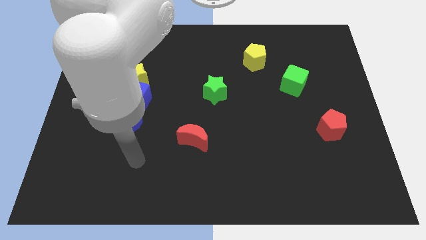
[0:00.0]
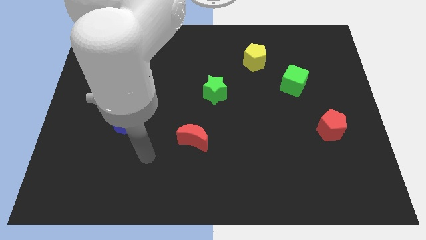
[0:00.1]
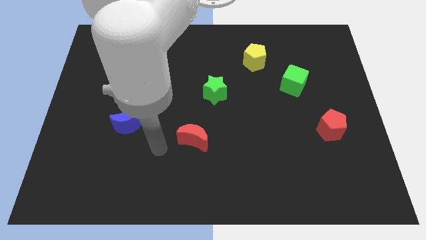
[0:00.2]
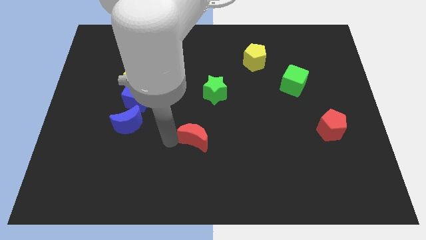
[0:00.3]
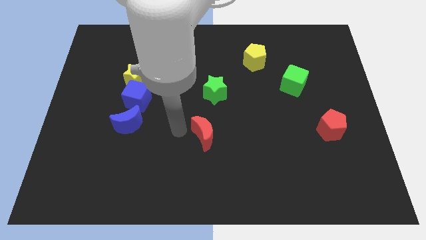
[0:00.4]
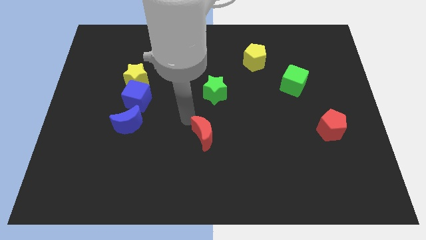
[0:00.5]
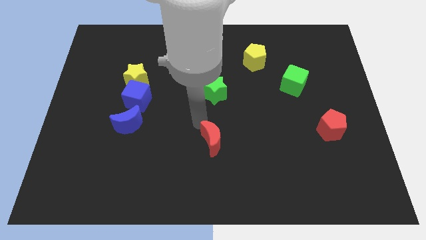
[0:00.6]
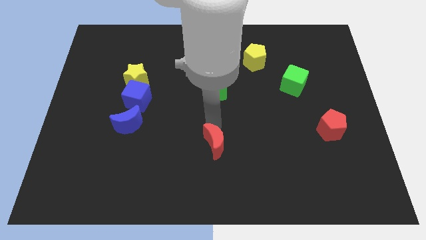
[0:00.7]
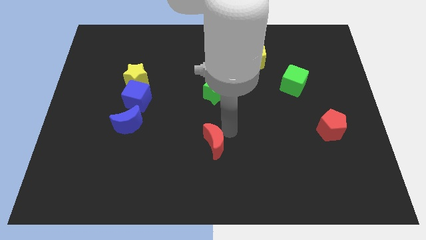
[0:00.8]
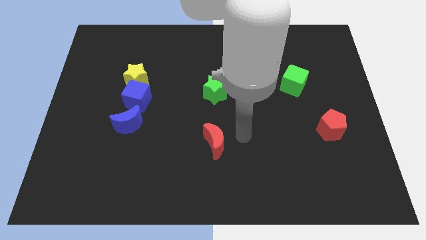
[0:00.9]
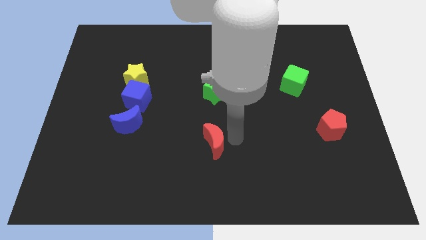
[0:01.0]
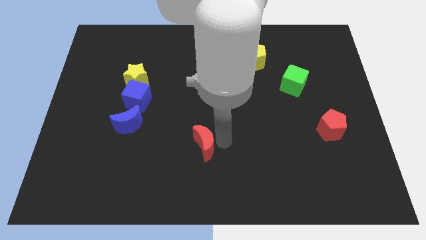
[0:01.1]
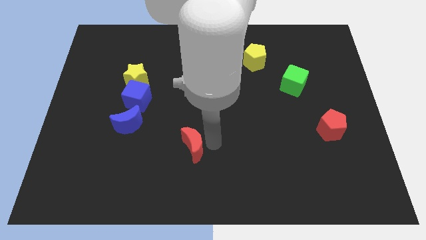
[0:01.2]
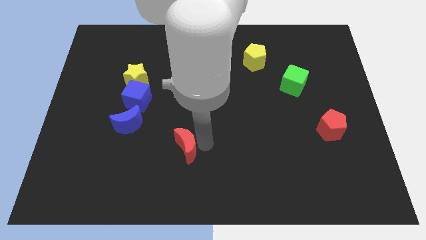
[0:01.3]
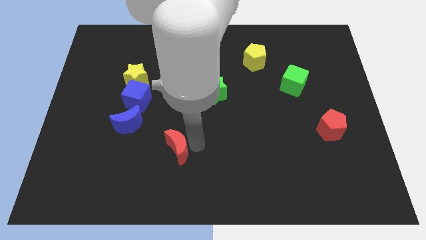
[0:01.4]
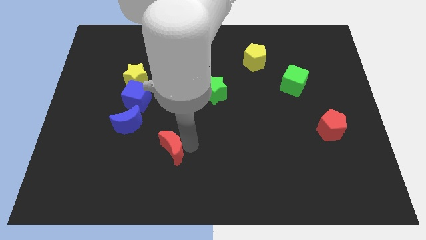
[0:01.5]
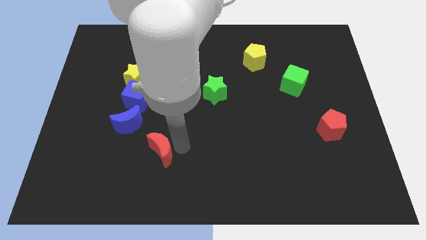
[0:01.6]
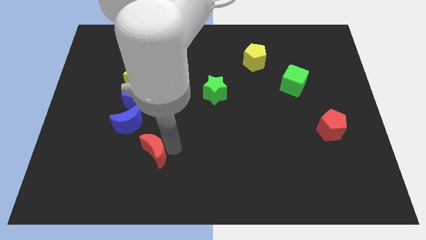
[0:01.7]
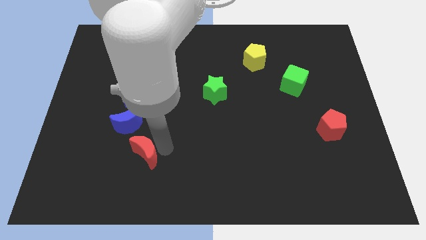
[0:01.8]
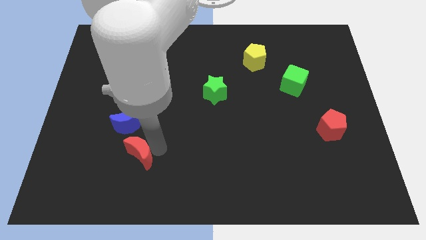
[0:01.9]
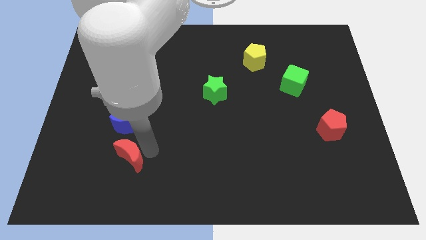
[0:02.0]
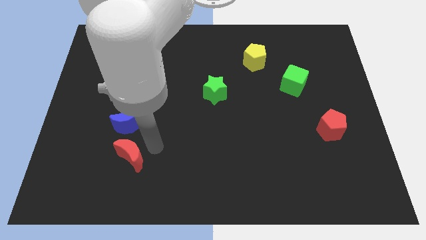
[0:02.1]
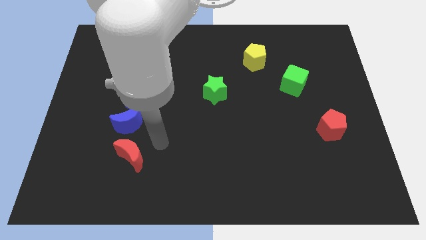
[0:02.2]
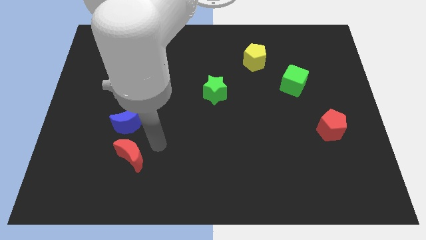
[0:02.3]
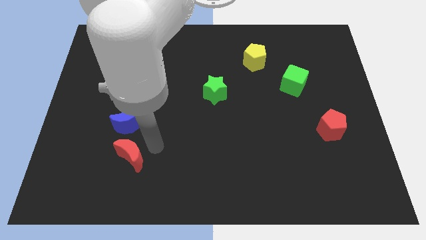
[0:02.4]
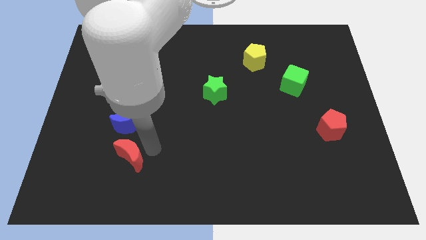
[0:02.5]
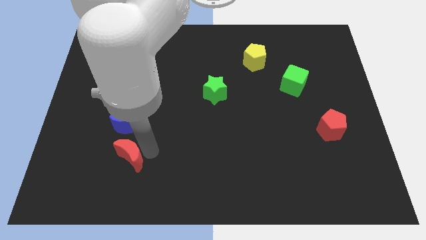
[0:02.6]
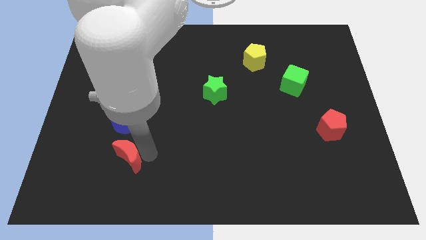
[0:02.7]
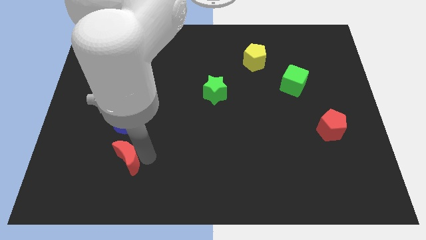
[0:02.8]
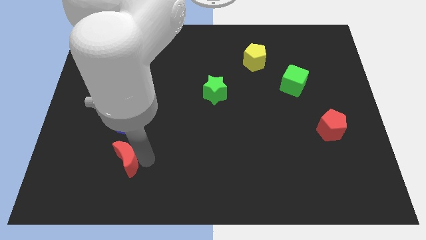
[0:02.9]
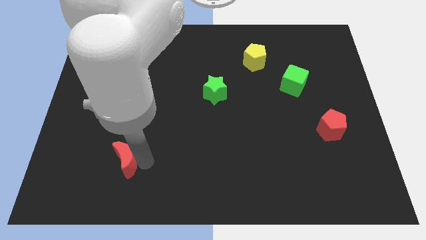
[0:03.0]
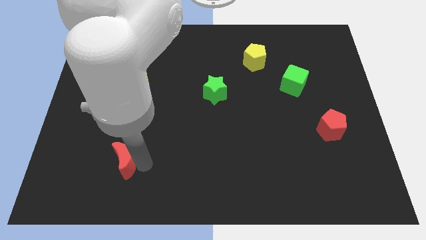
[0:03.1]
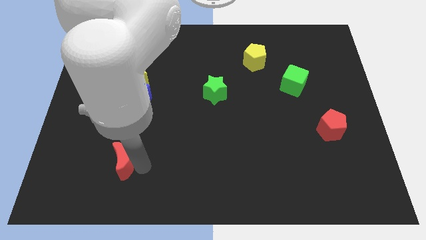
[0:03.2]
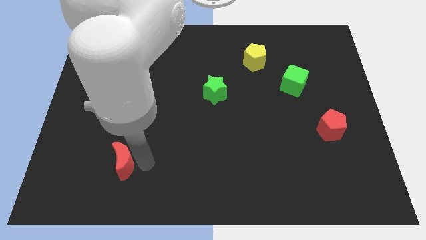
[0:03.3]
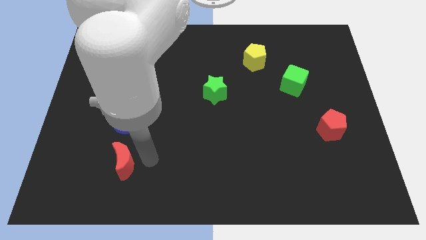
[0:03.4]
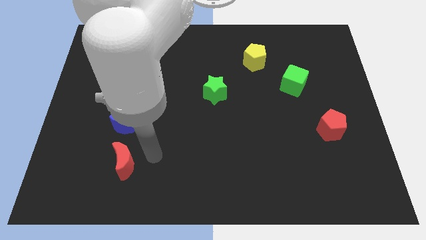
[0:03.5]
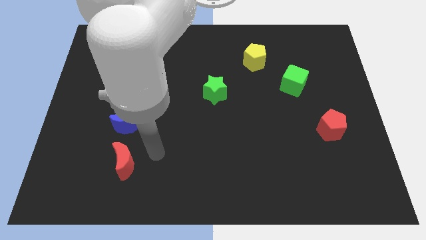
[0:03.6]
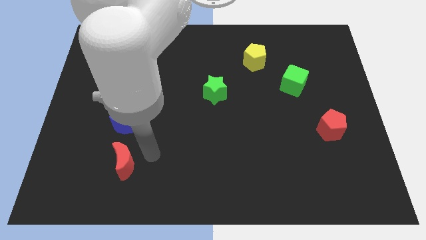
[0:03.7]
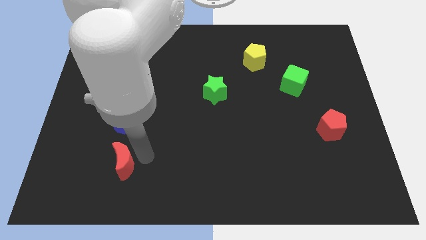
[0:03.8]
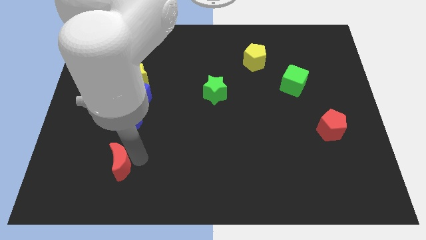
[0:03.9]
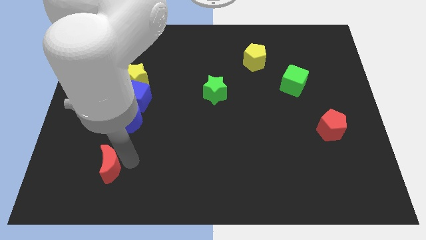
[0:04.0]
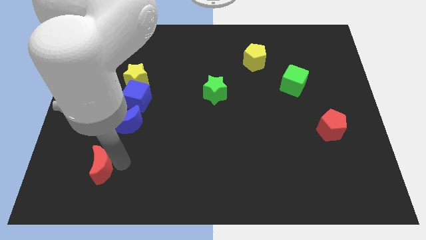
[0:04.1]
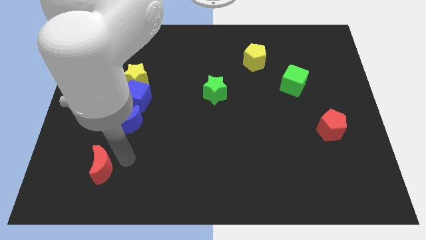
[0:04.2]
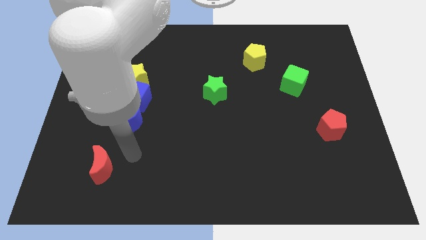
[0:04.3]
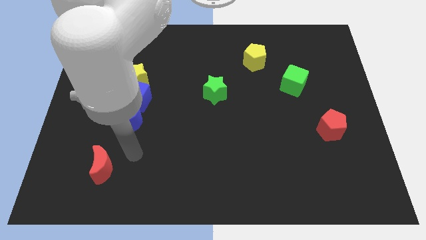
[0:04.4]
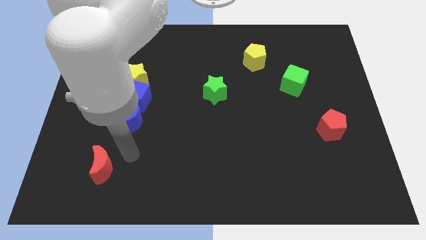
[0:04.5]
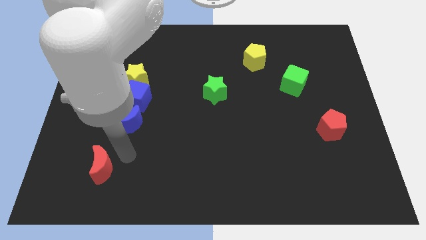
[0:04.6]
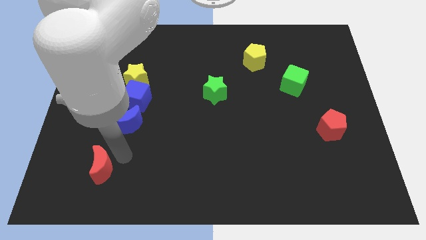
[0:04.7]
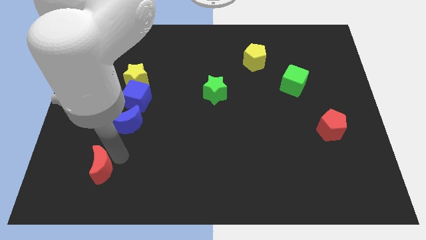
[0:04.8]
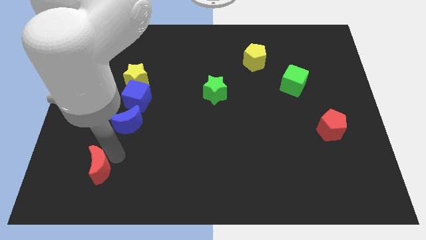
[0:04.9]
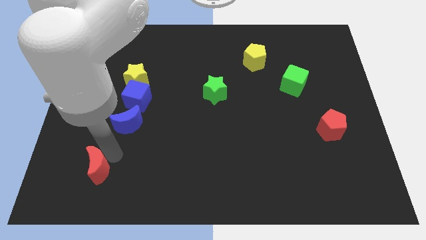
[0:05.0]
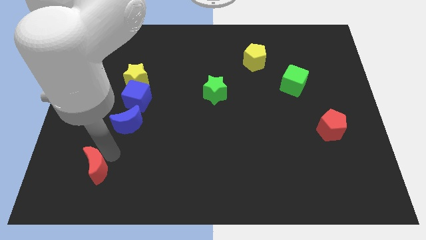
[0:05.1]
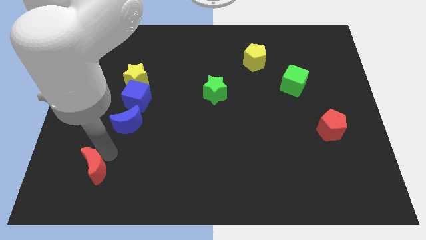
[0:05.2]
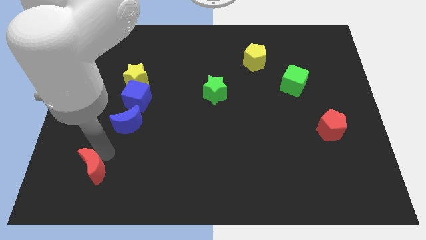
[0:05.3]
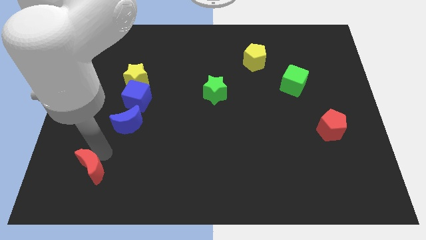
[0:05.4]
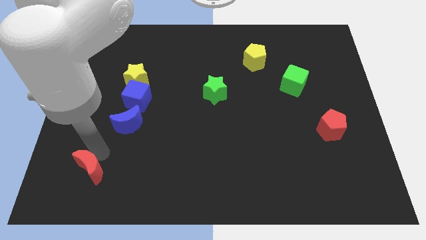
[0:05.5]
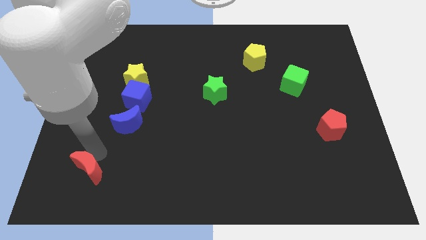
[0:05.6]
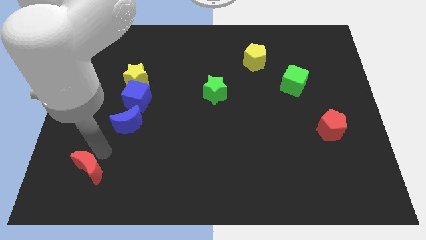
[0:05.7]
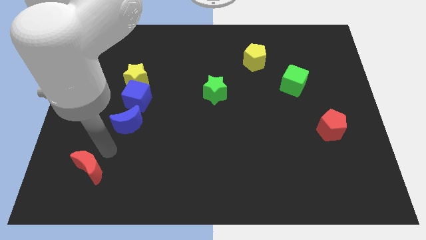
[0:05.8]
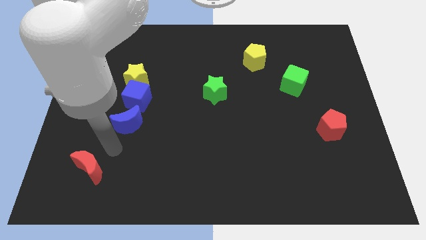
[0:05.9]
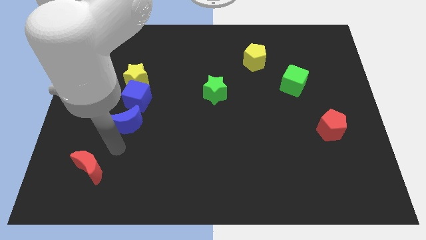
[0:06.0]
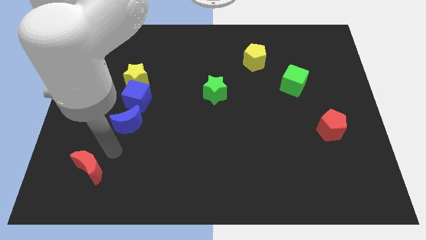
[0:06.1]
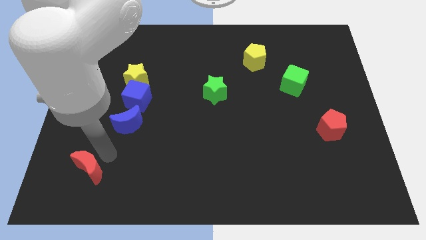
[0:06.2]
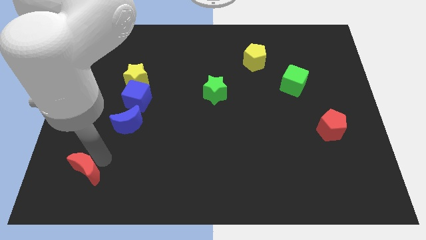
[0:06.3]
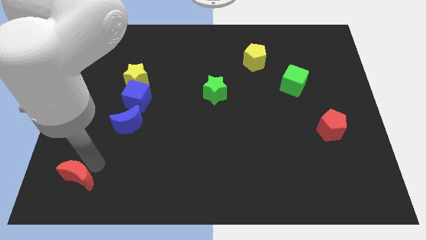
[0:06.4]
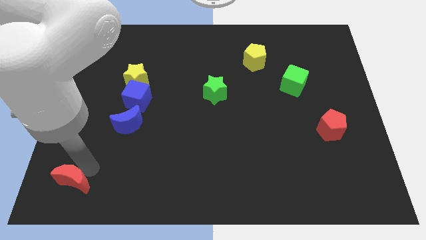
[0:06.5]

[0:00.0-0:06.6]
put the red moon to the bottom left
